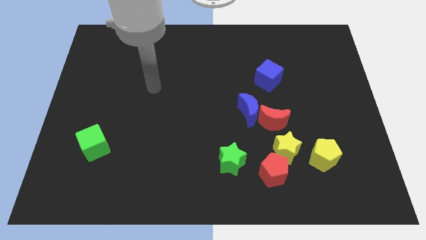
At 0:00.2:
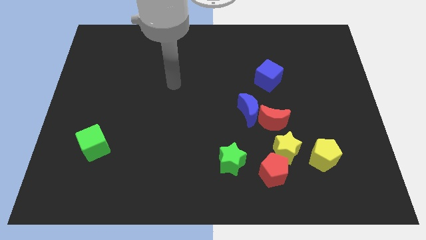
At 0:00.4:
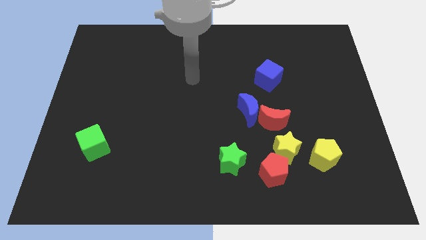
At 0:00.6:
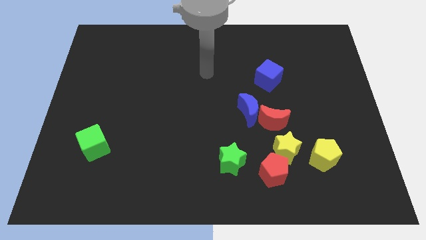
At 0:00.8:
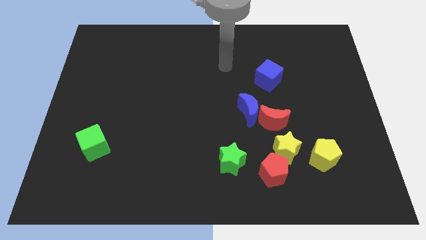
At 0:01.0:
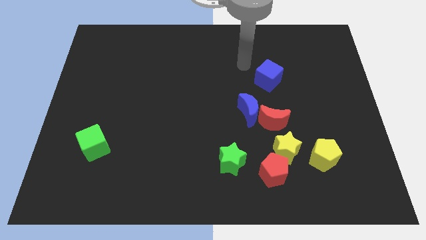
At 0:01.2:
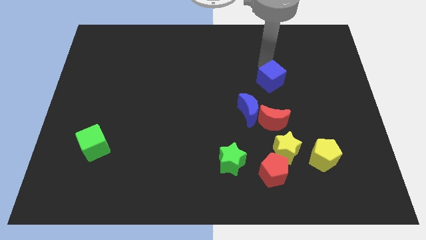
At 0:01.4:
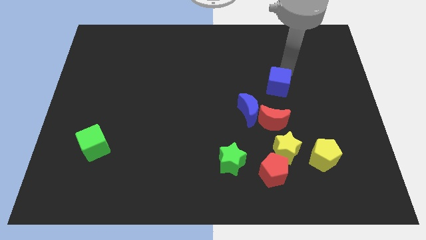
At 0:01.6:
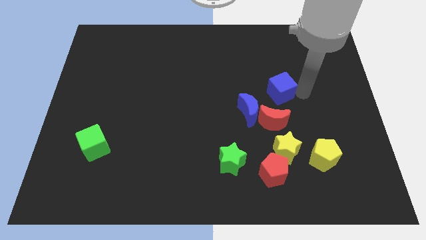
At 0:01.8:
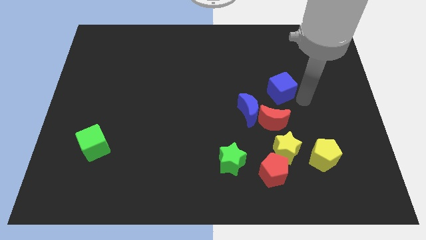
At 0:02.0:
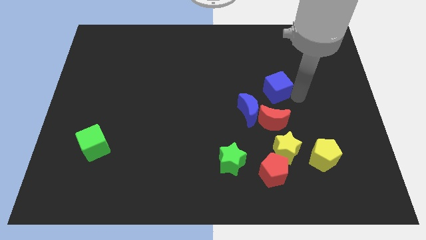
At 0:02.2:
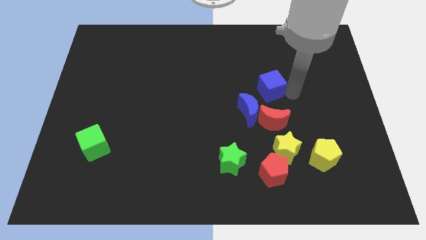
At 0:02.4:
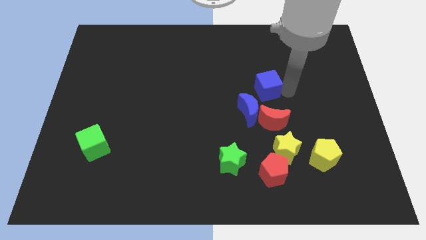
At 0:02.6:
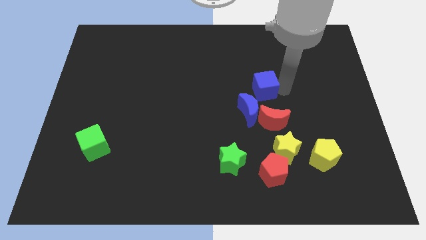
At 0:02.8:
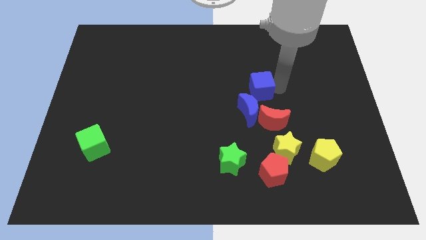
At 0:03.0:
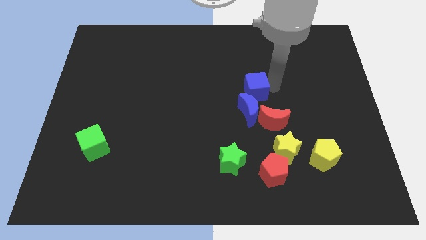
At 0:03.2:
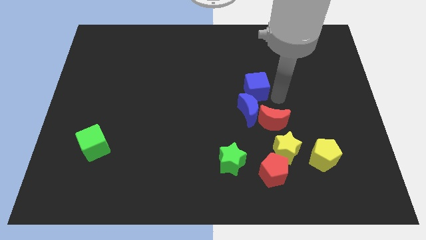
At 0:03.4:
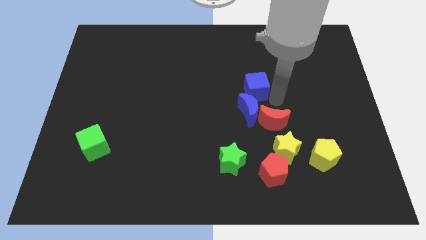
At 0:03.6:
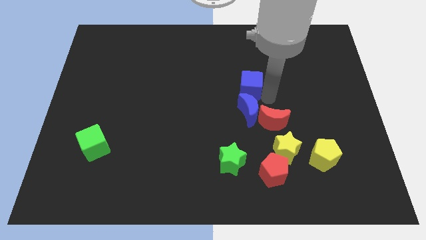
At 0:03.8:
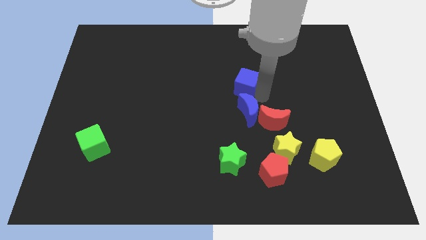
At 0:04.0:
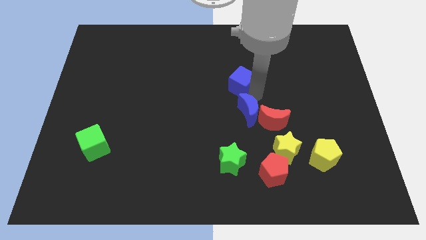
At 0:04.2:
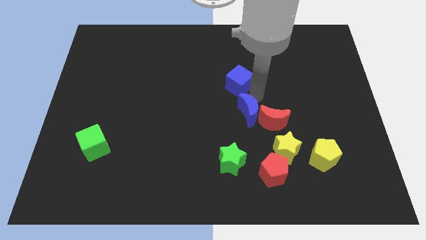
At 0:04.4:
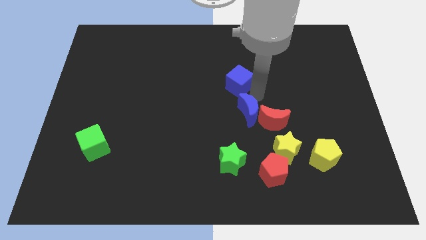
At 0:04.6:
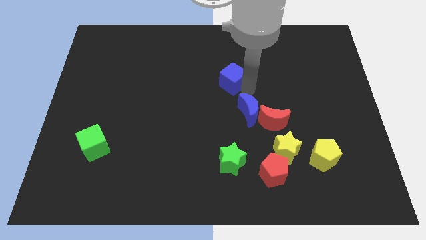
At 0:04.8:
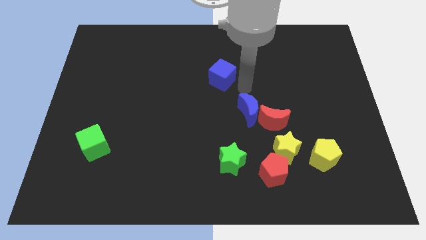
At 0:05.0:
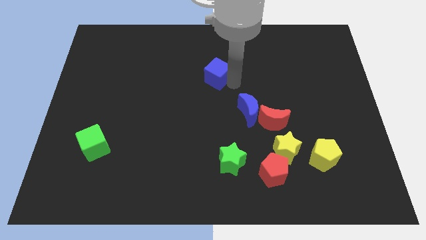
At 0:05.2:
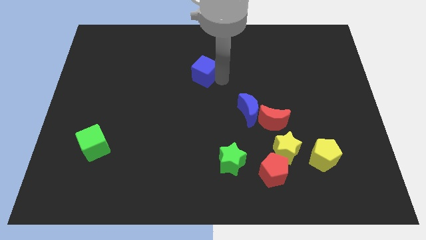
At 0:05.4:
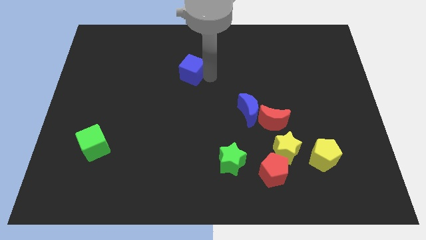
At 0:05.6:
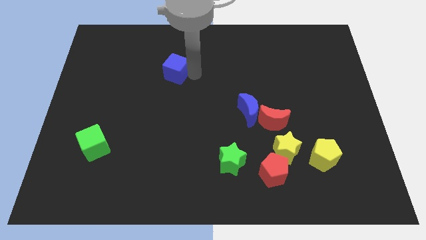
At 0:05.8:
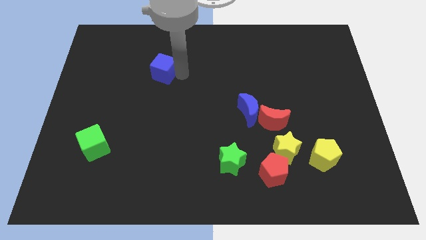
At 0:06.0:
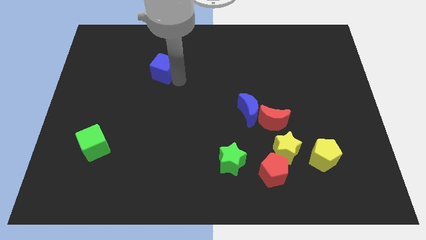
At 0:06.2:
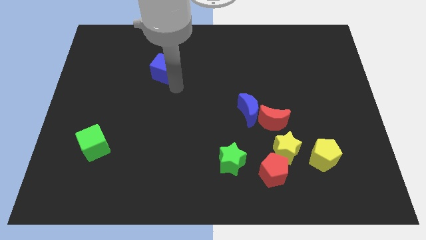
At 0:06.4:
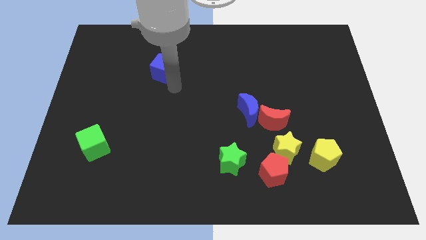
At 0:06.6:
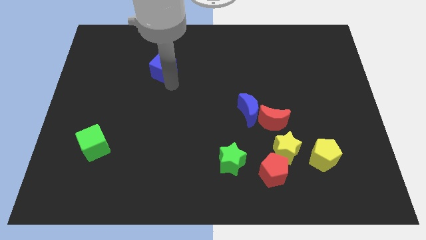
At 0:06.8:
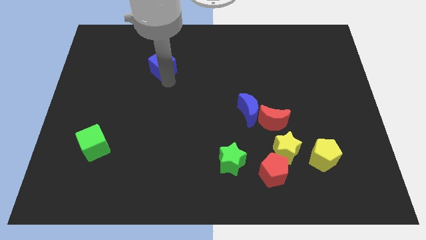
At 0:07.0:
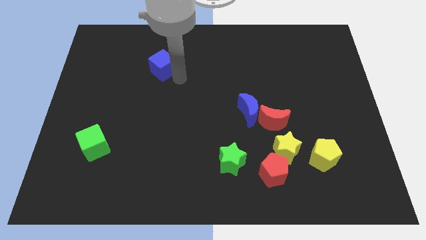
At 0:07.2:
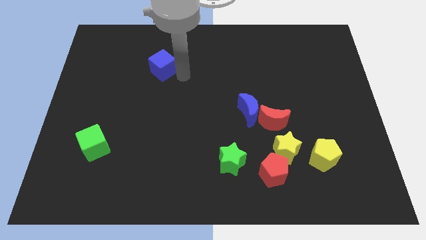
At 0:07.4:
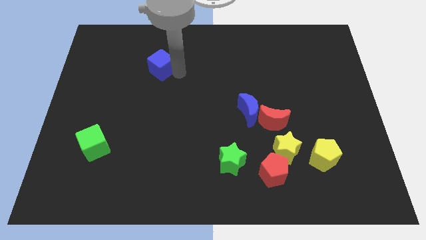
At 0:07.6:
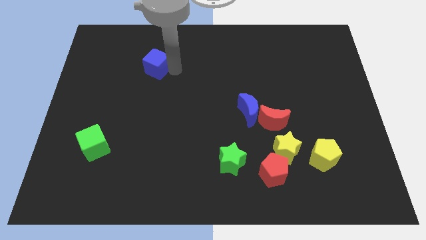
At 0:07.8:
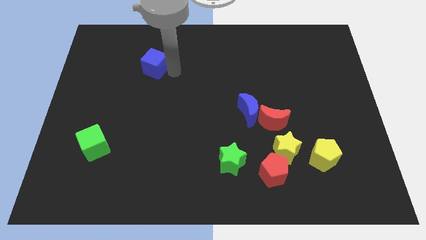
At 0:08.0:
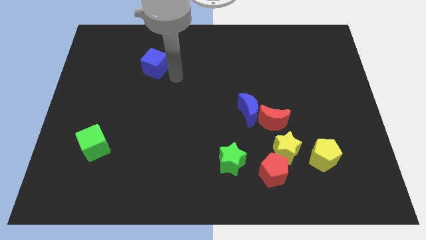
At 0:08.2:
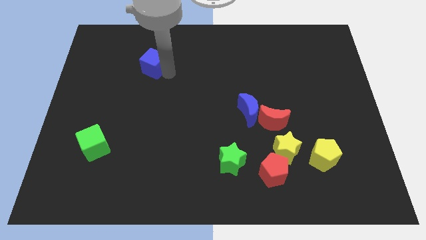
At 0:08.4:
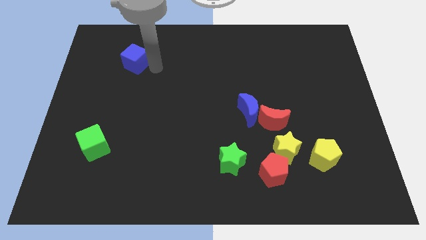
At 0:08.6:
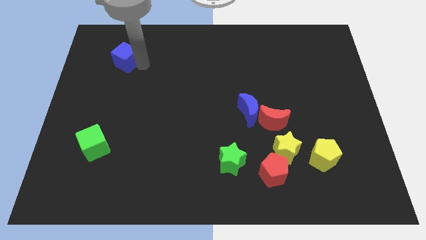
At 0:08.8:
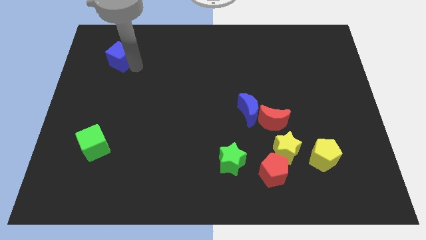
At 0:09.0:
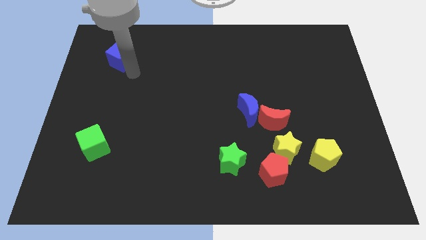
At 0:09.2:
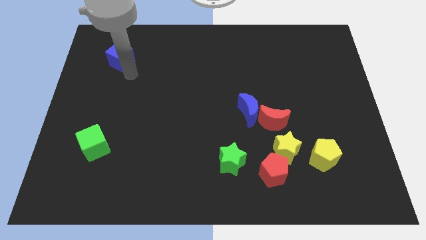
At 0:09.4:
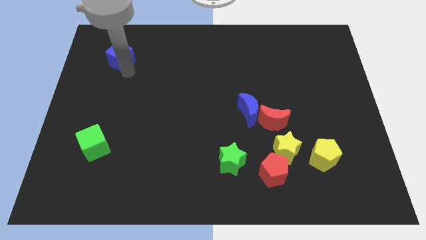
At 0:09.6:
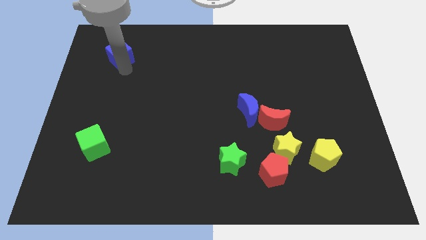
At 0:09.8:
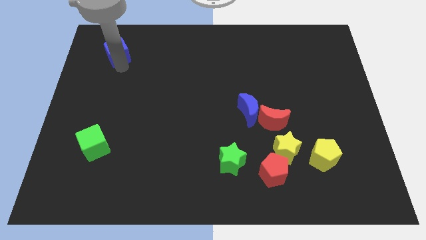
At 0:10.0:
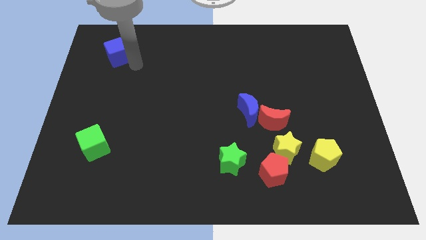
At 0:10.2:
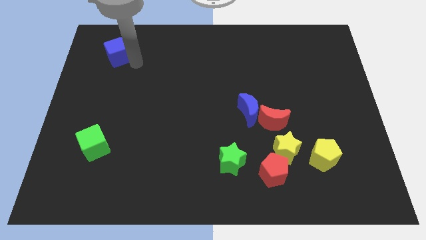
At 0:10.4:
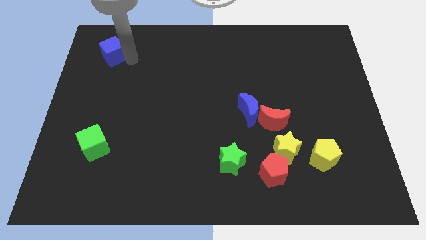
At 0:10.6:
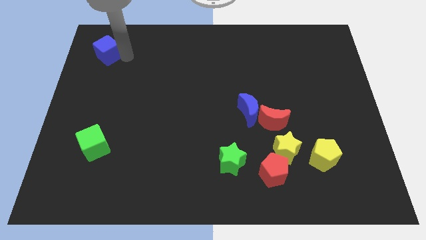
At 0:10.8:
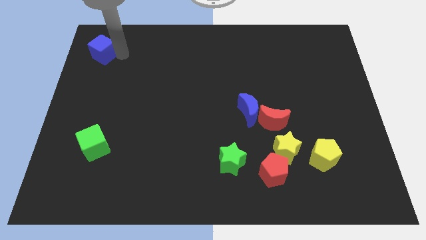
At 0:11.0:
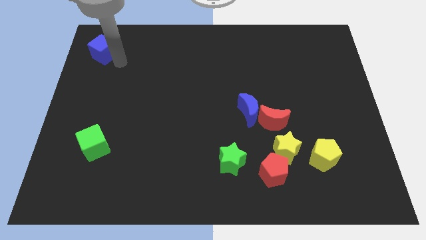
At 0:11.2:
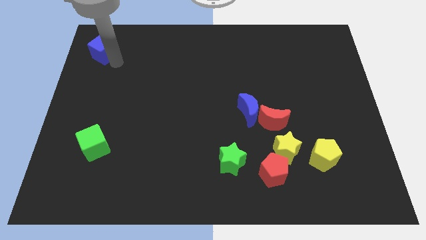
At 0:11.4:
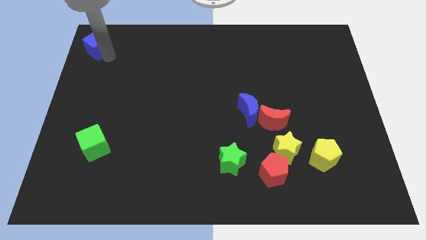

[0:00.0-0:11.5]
put the blue cube to the upper left corner

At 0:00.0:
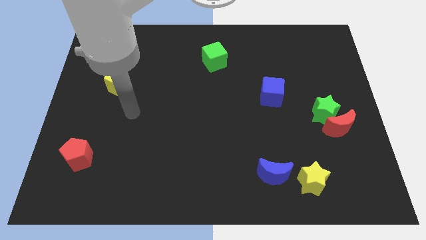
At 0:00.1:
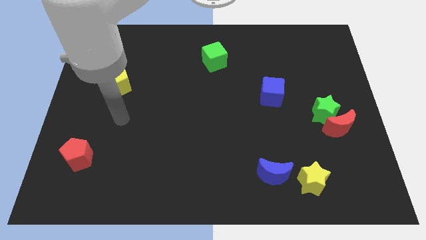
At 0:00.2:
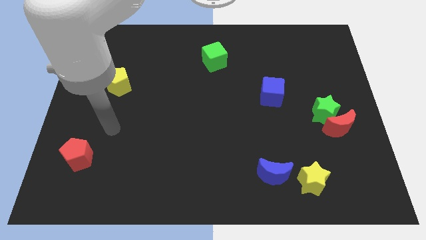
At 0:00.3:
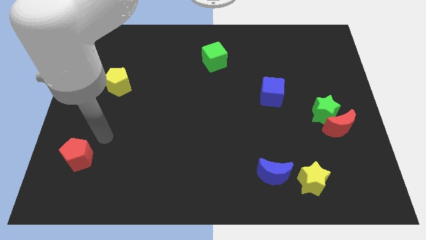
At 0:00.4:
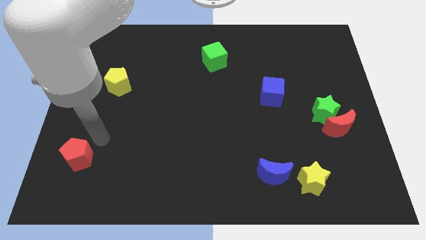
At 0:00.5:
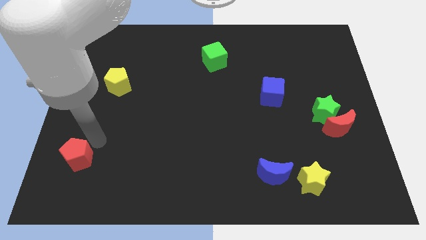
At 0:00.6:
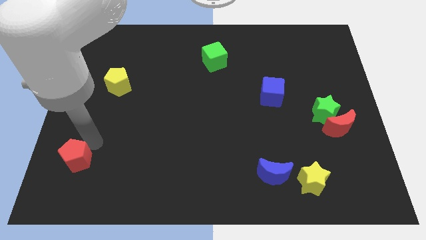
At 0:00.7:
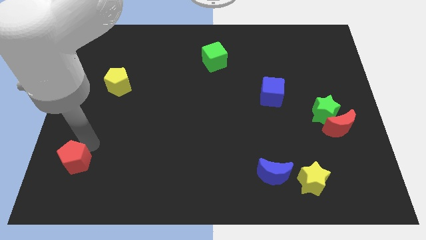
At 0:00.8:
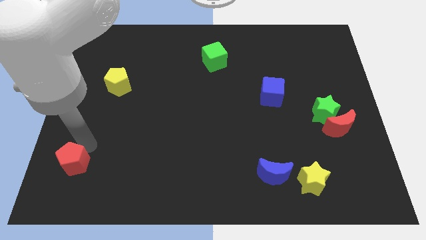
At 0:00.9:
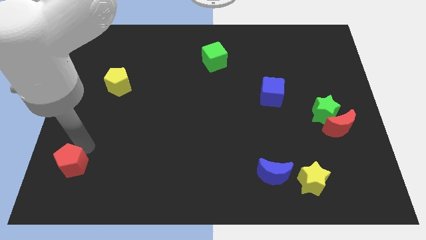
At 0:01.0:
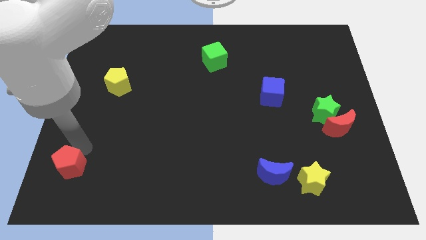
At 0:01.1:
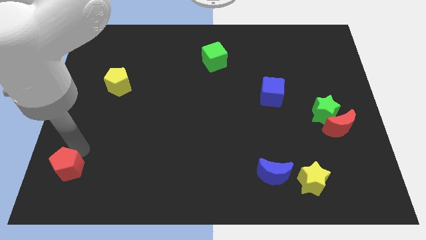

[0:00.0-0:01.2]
put the red pentagon to the lower left corner
